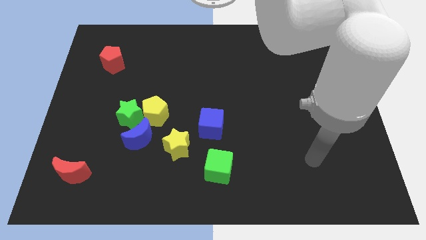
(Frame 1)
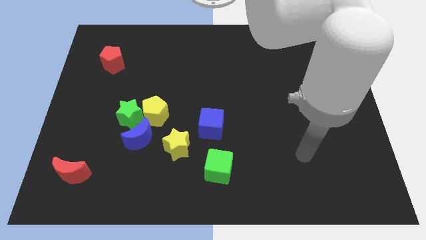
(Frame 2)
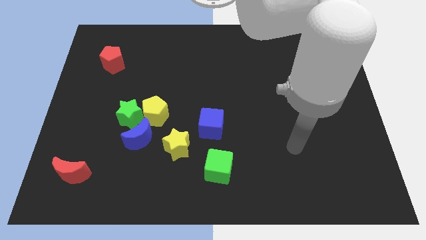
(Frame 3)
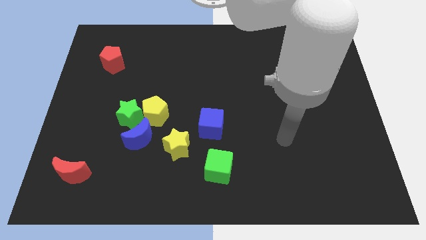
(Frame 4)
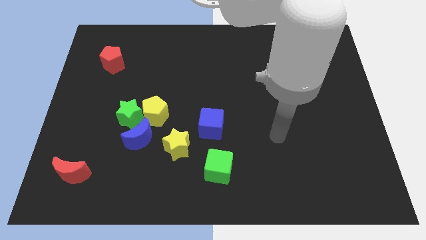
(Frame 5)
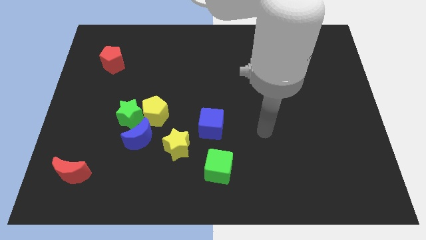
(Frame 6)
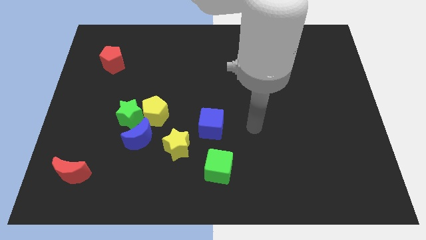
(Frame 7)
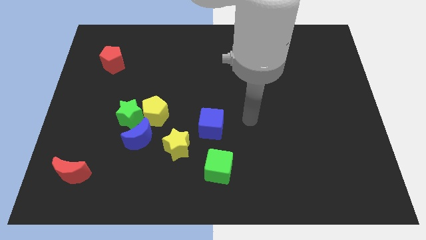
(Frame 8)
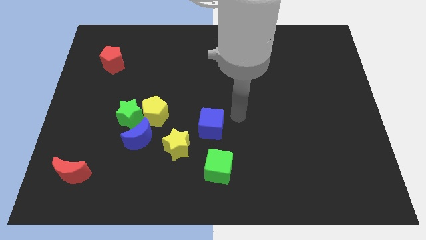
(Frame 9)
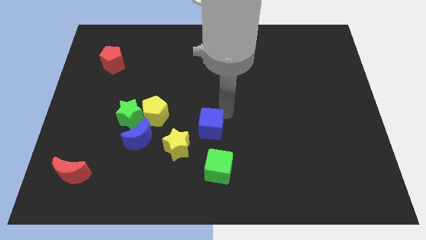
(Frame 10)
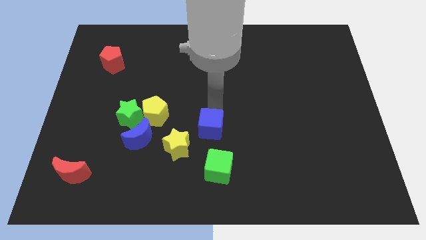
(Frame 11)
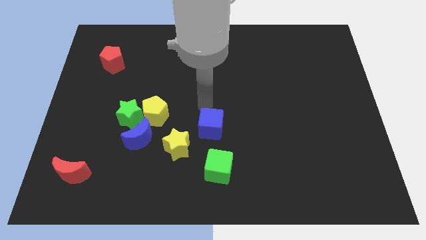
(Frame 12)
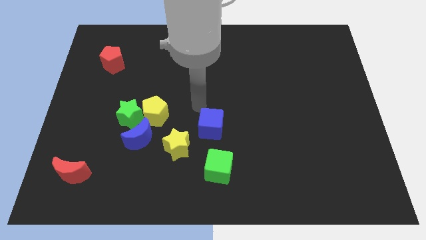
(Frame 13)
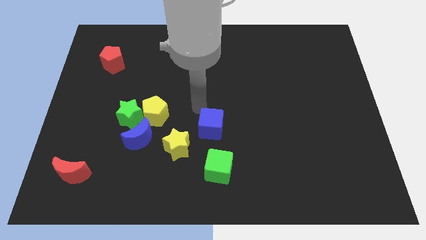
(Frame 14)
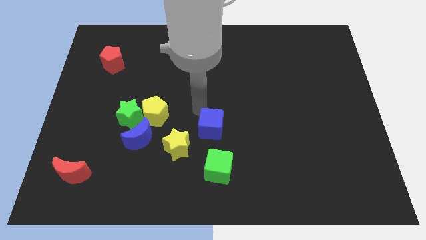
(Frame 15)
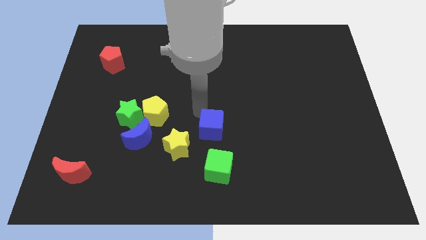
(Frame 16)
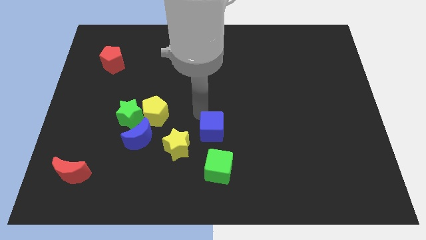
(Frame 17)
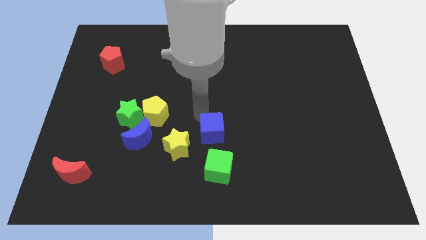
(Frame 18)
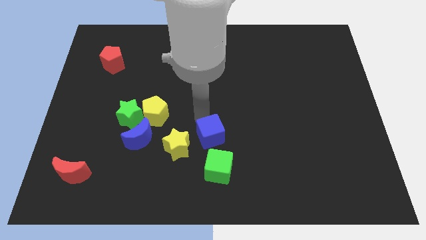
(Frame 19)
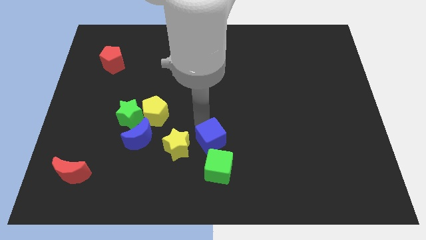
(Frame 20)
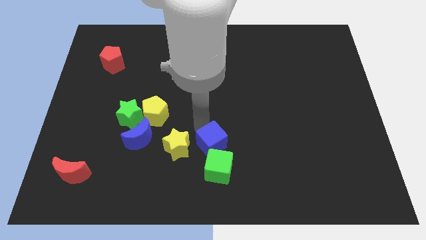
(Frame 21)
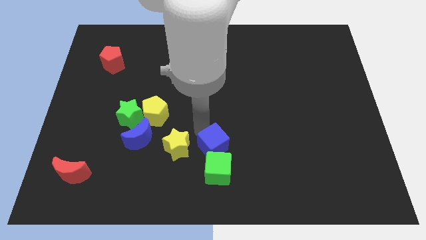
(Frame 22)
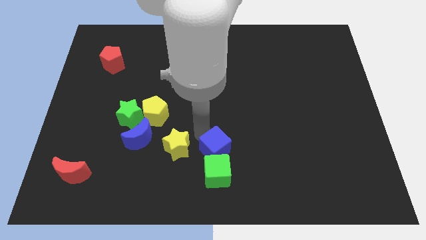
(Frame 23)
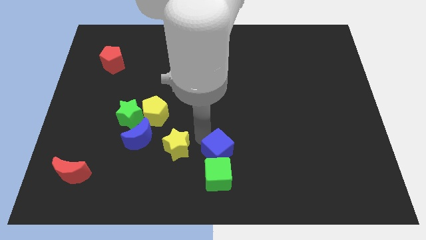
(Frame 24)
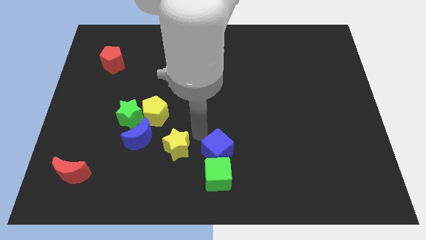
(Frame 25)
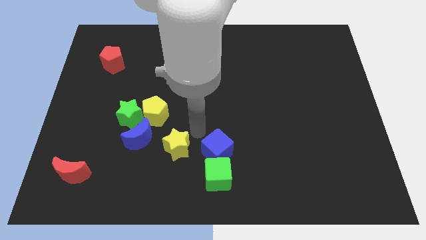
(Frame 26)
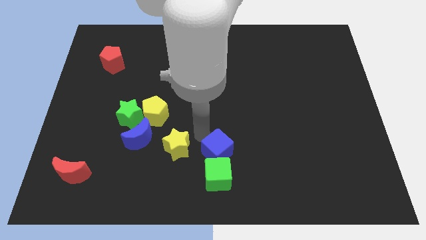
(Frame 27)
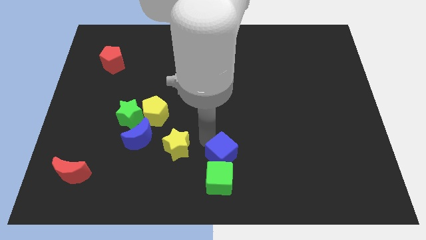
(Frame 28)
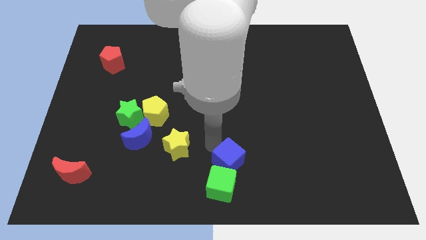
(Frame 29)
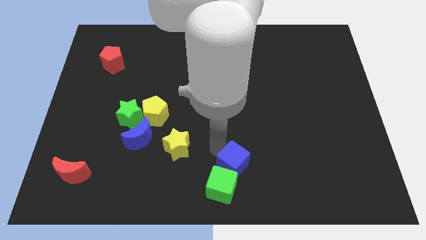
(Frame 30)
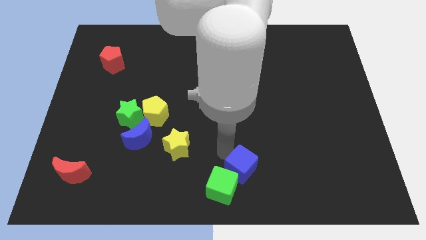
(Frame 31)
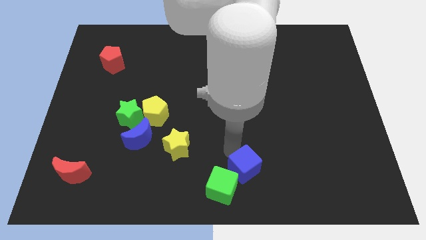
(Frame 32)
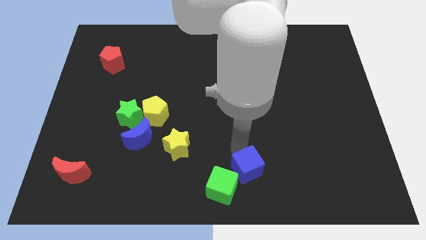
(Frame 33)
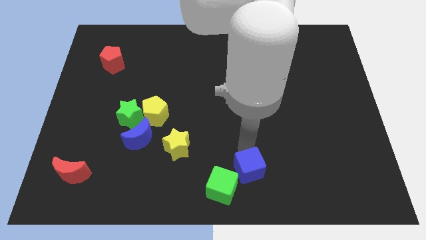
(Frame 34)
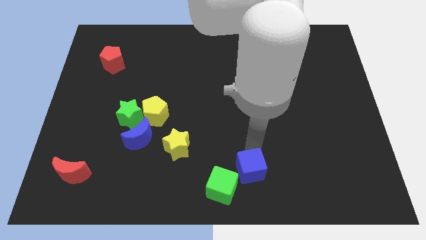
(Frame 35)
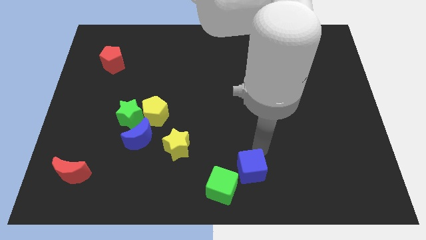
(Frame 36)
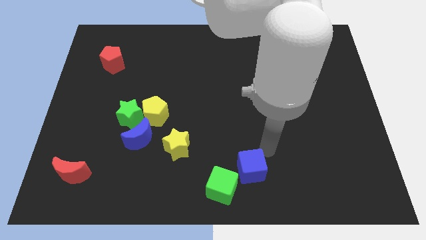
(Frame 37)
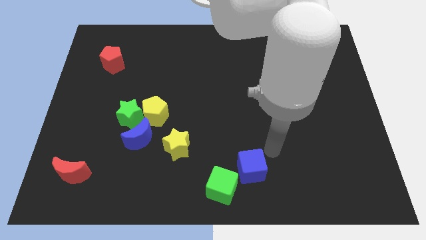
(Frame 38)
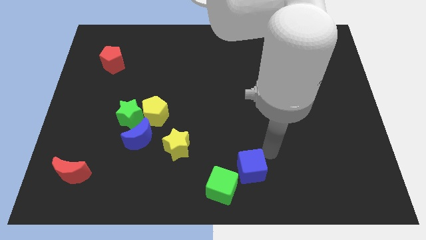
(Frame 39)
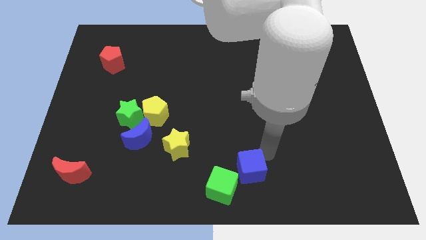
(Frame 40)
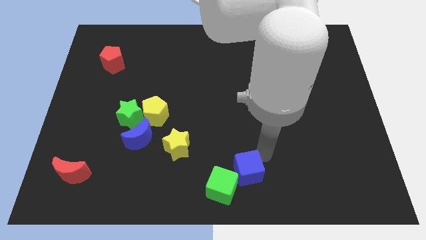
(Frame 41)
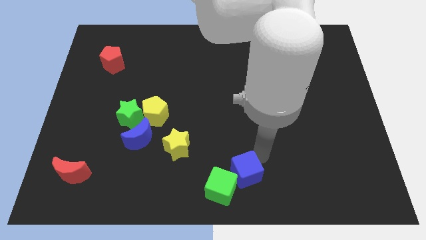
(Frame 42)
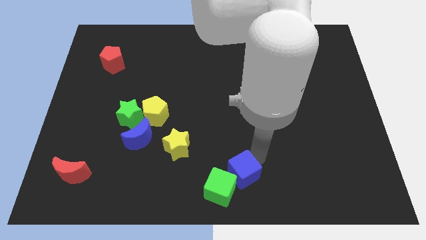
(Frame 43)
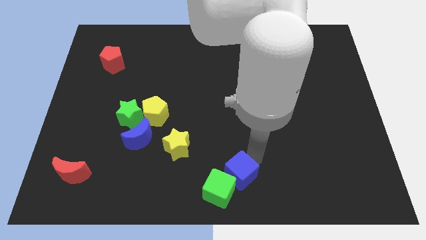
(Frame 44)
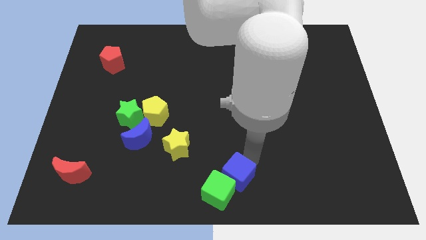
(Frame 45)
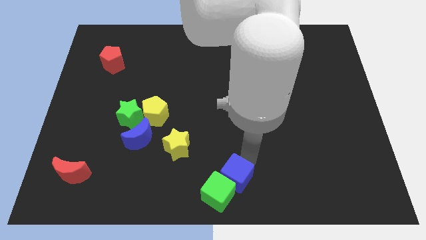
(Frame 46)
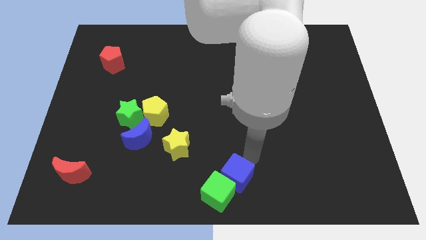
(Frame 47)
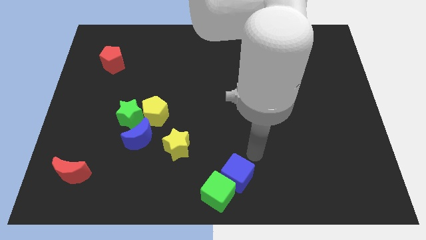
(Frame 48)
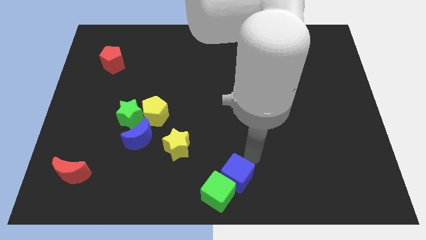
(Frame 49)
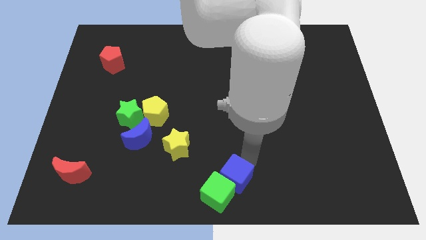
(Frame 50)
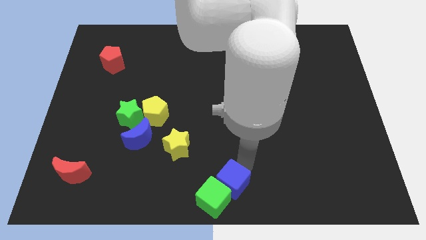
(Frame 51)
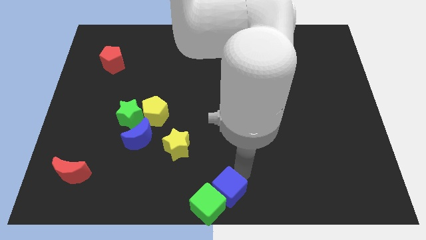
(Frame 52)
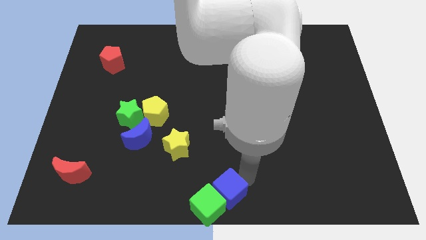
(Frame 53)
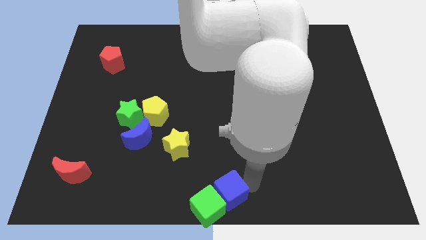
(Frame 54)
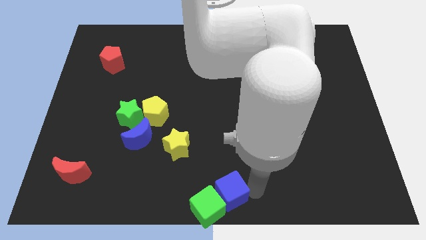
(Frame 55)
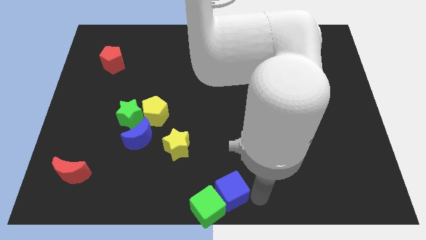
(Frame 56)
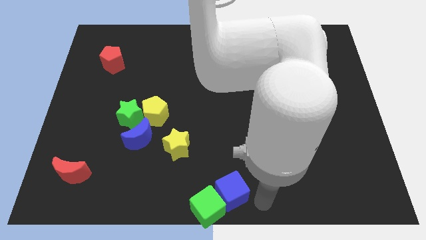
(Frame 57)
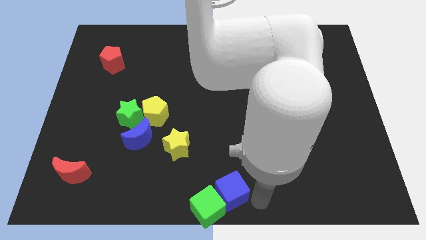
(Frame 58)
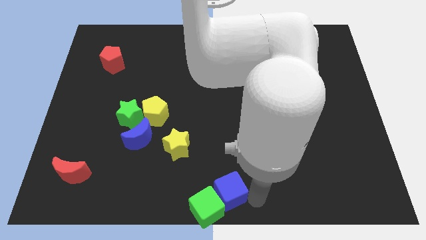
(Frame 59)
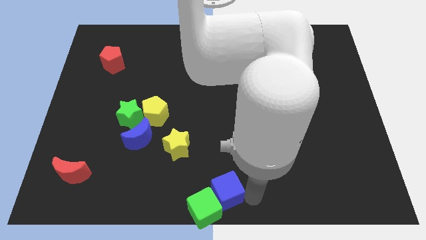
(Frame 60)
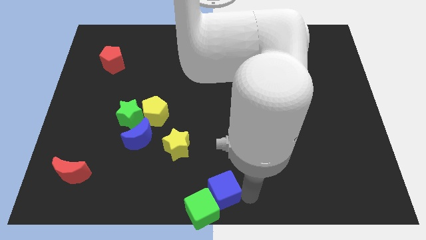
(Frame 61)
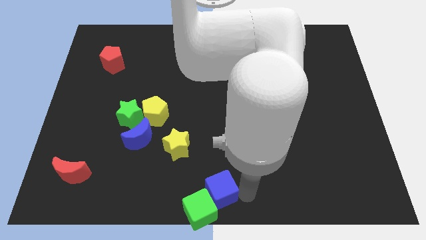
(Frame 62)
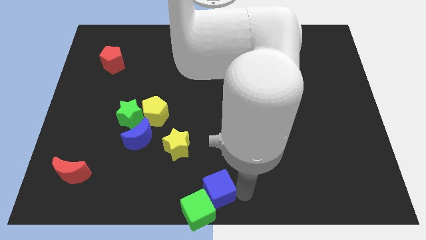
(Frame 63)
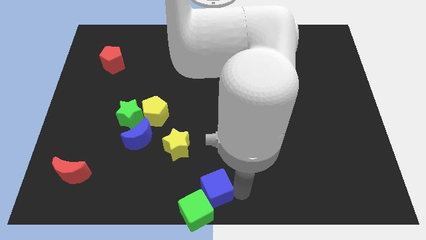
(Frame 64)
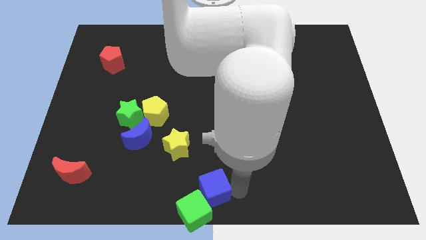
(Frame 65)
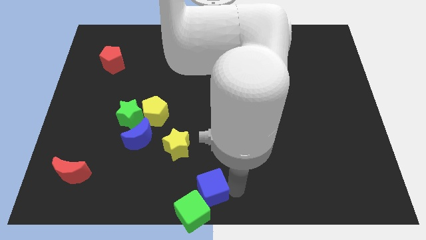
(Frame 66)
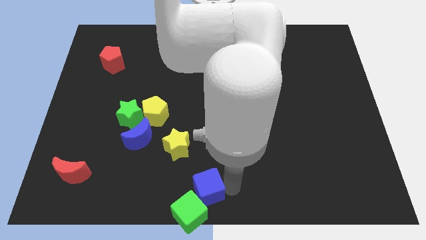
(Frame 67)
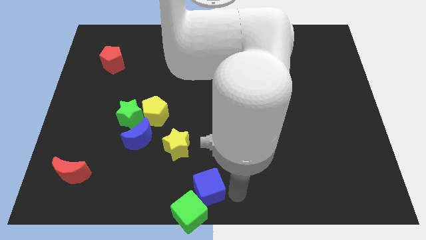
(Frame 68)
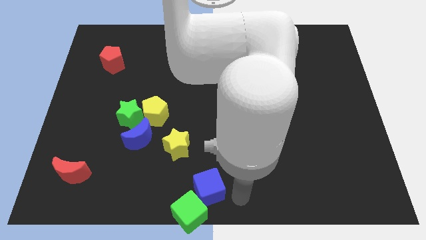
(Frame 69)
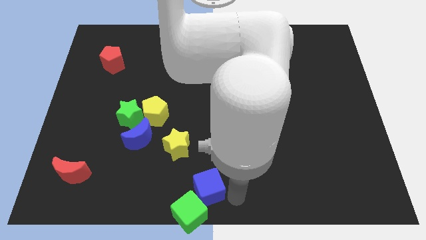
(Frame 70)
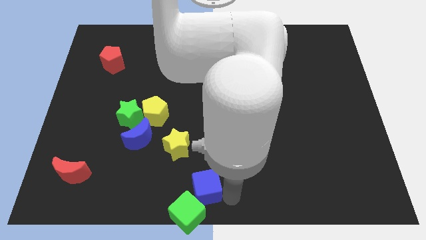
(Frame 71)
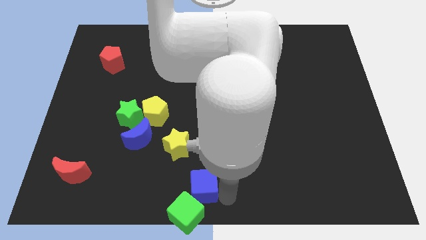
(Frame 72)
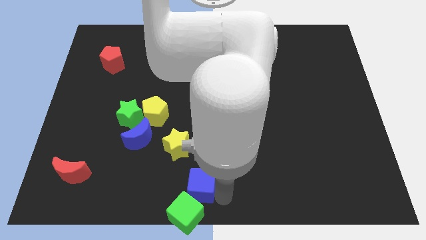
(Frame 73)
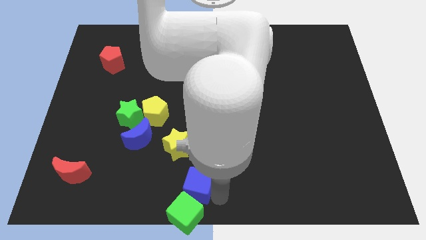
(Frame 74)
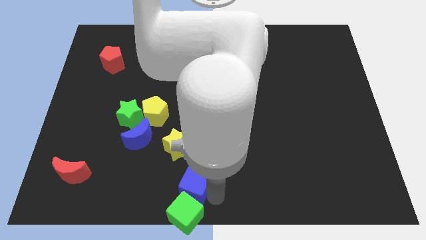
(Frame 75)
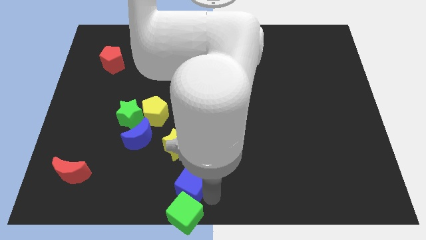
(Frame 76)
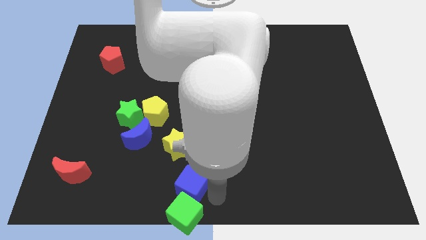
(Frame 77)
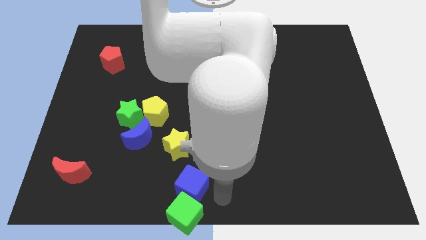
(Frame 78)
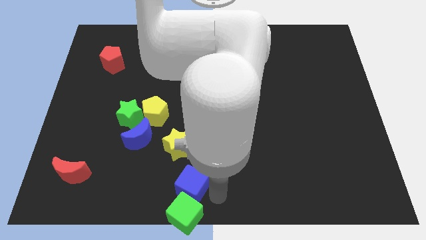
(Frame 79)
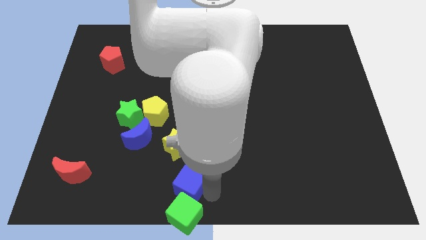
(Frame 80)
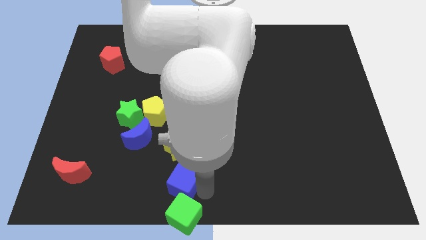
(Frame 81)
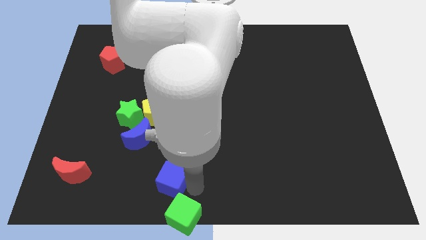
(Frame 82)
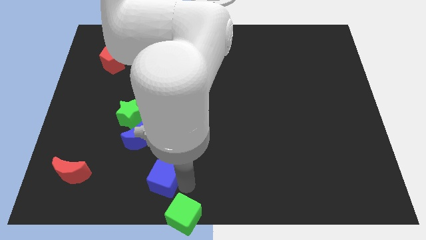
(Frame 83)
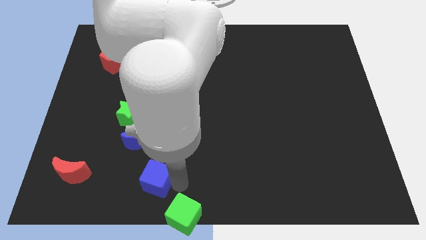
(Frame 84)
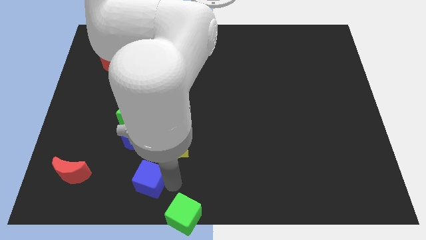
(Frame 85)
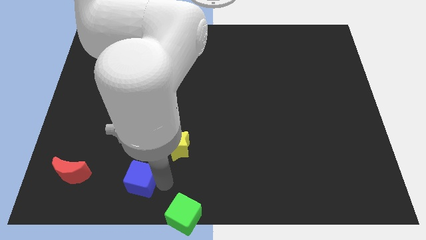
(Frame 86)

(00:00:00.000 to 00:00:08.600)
put the blue cube just right of the red moon
